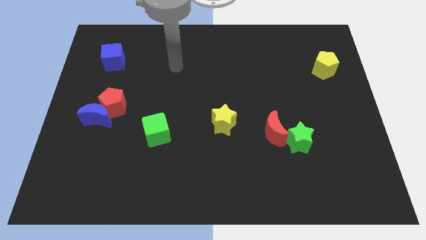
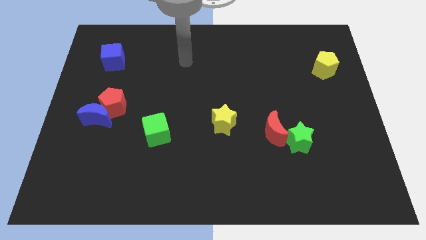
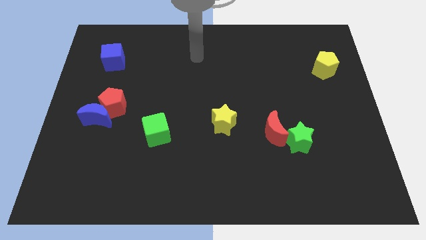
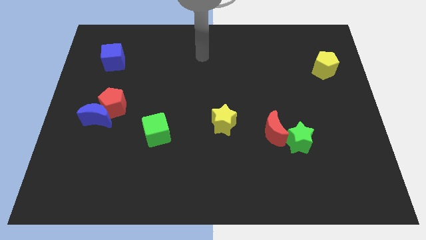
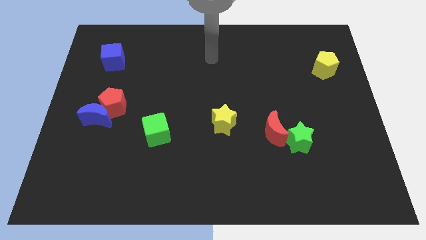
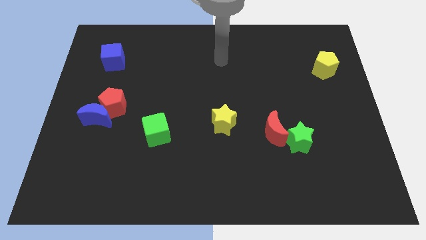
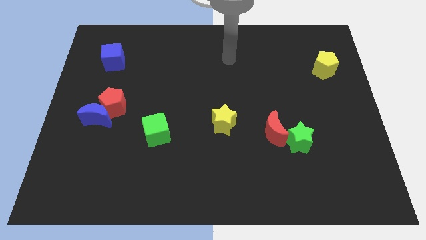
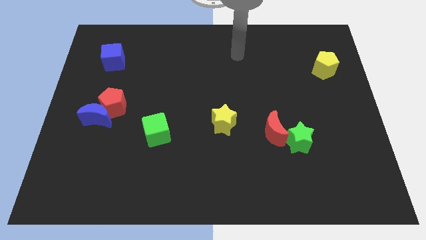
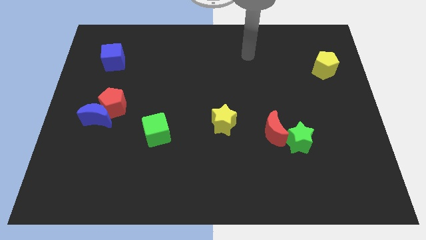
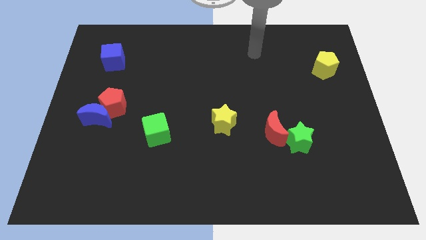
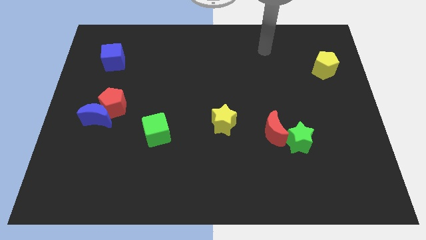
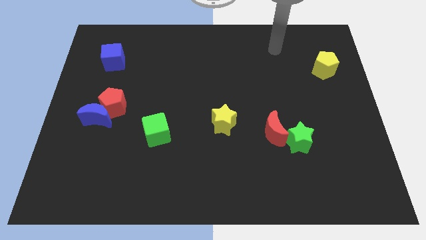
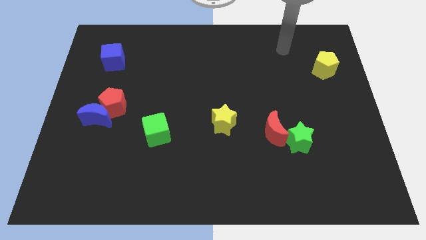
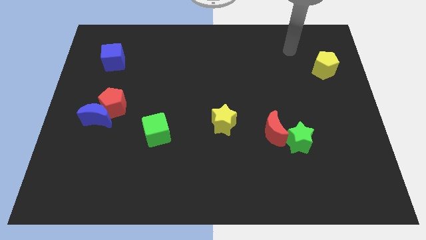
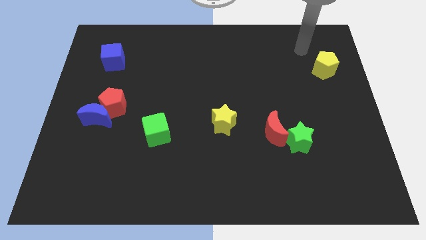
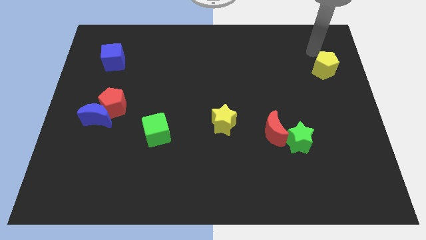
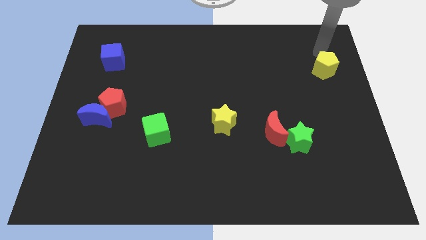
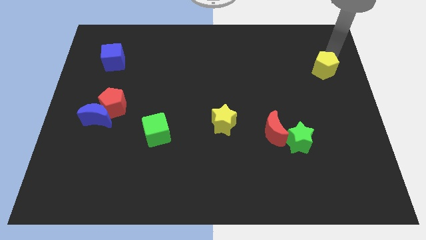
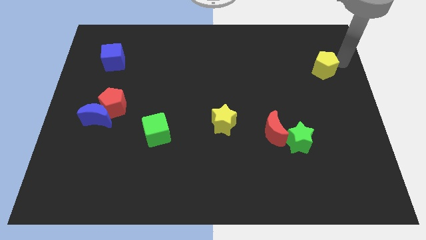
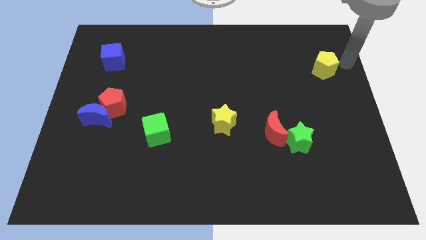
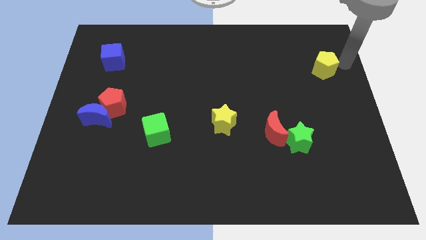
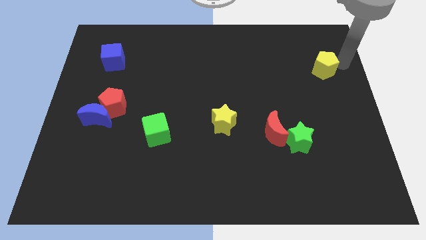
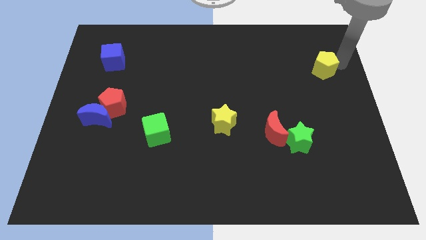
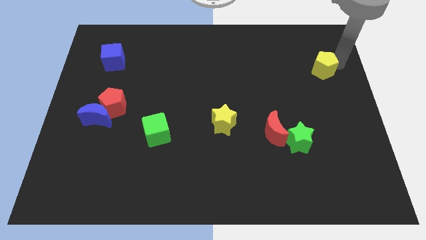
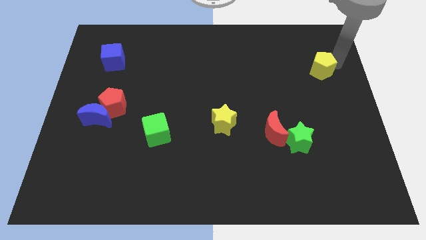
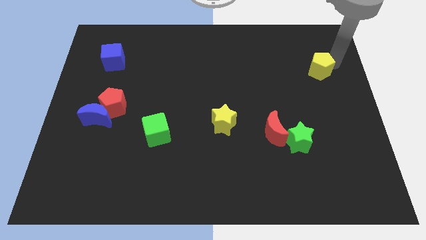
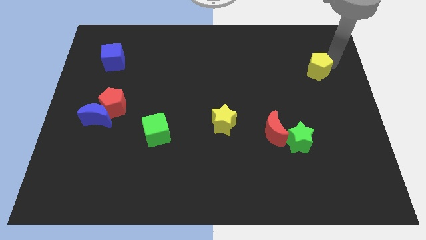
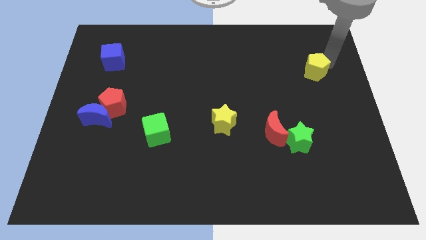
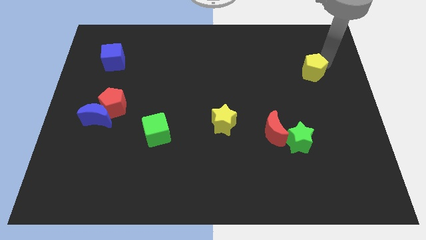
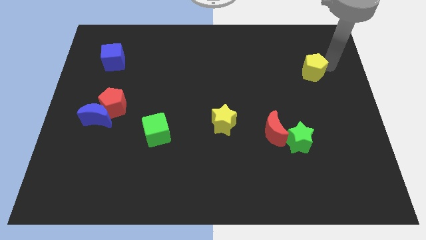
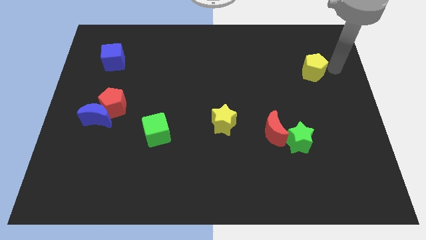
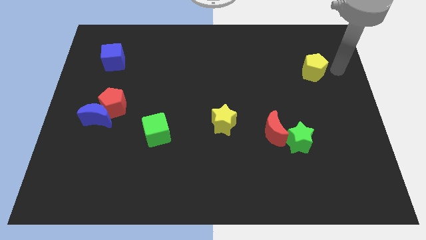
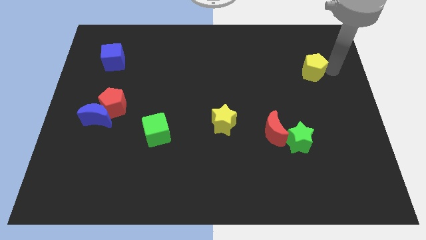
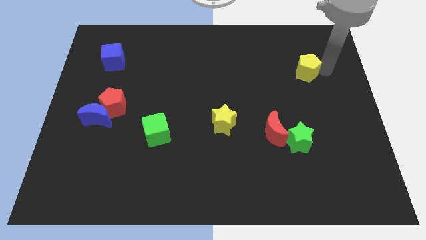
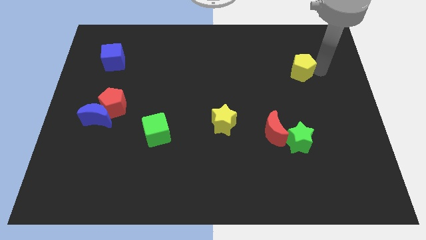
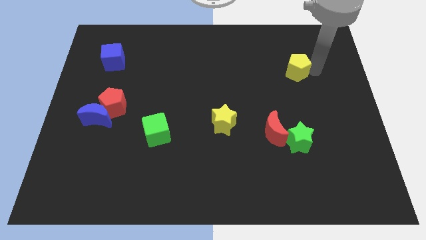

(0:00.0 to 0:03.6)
push the yellow pentagon a bit left

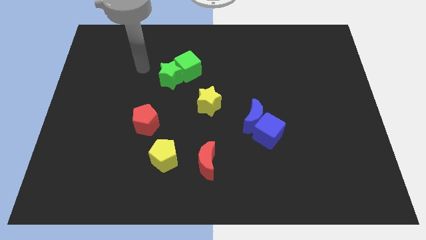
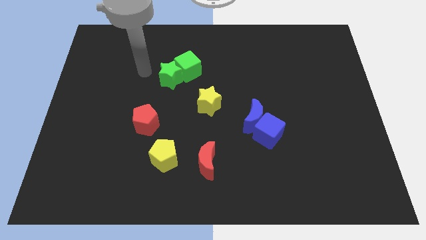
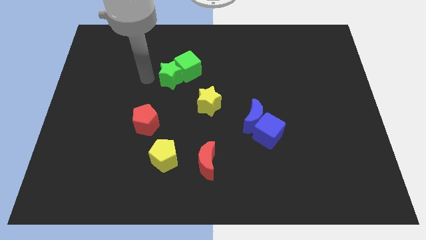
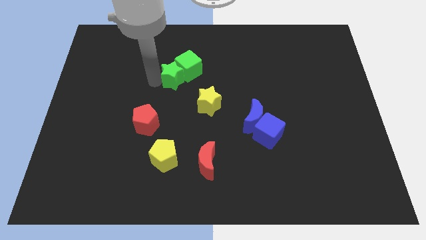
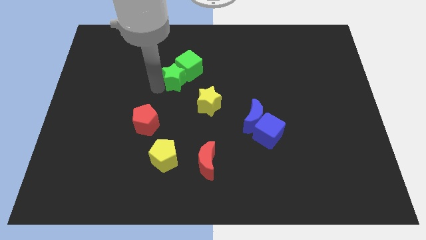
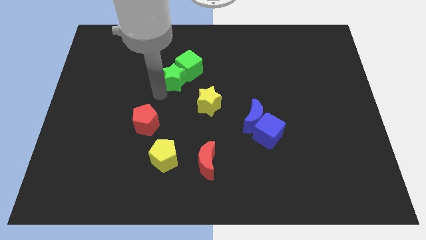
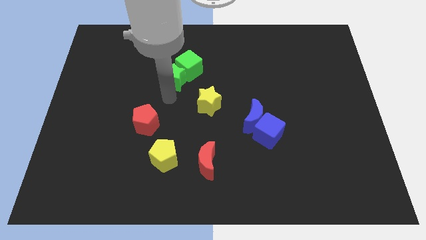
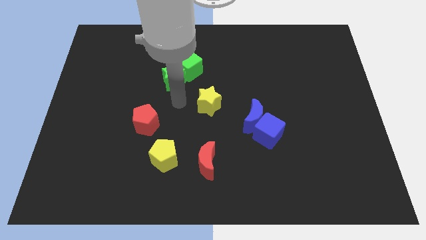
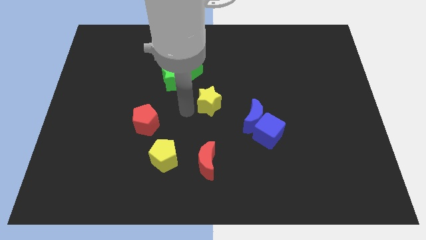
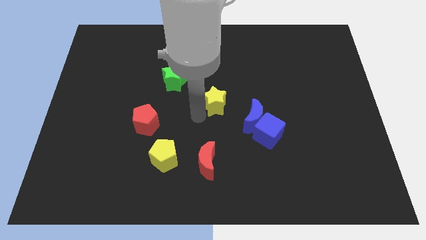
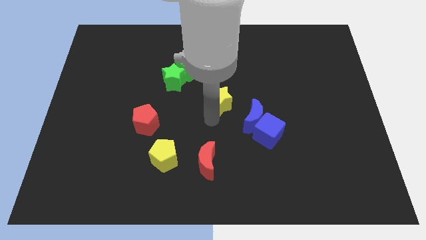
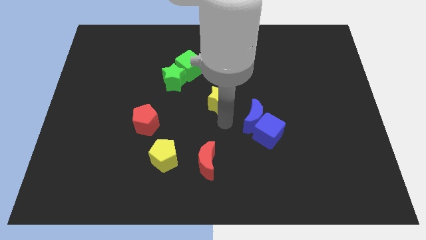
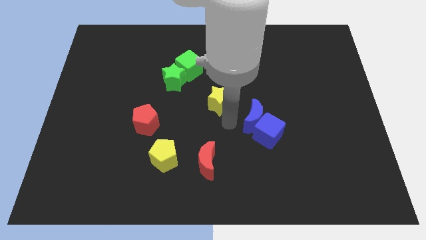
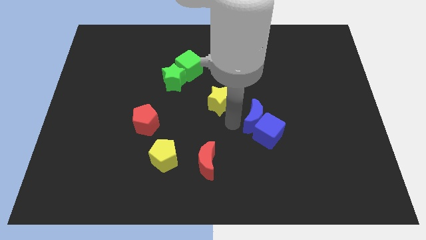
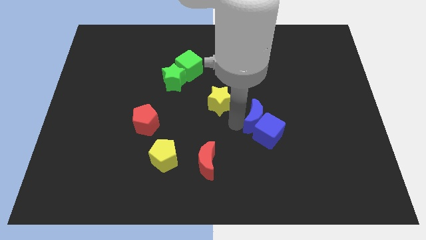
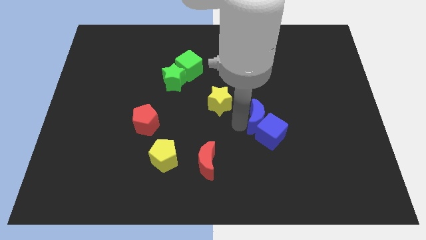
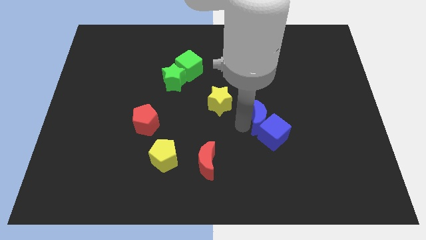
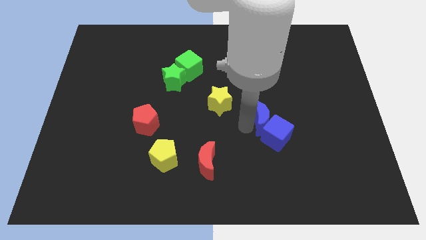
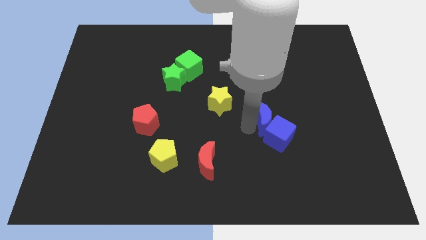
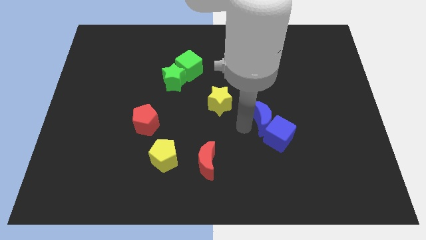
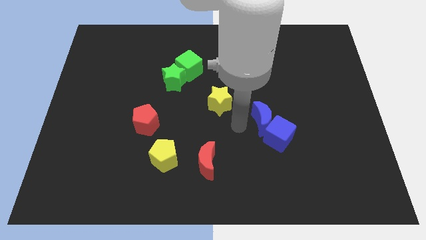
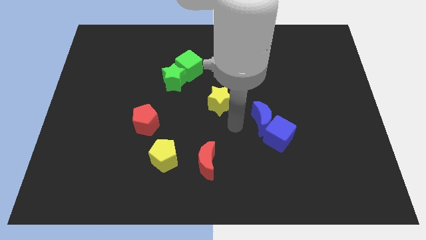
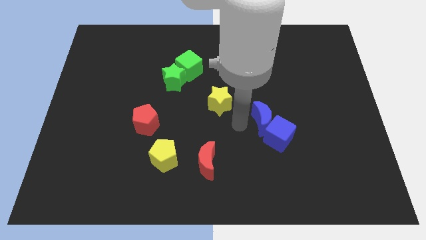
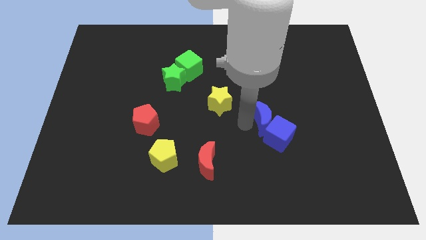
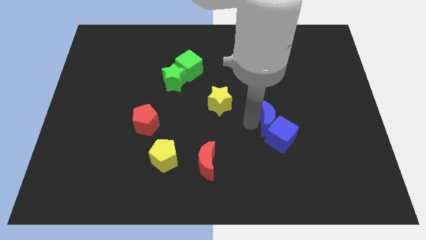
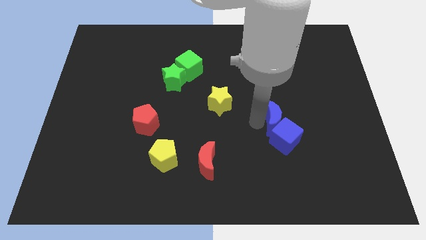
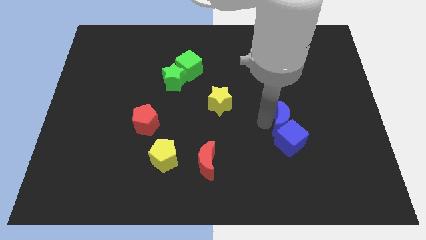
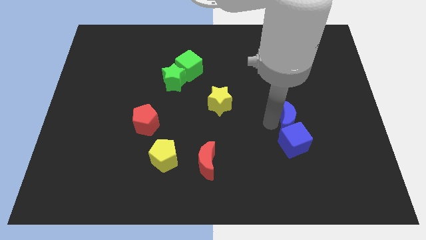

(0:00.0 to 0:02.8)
push the blue moon right somewhat

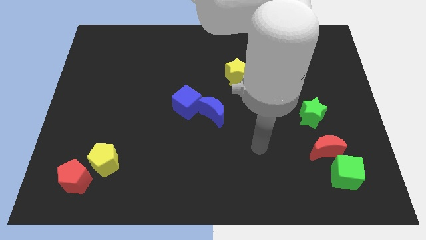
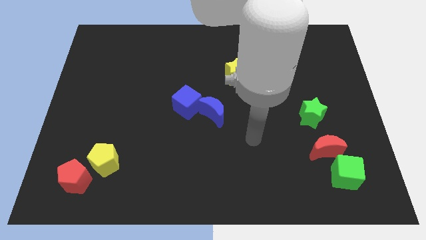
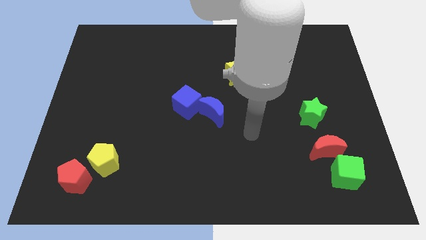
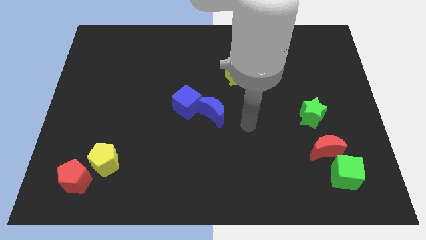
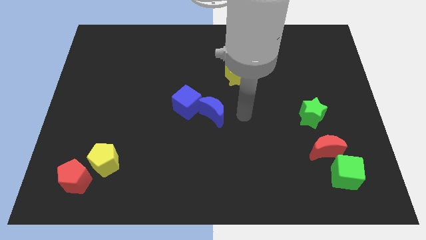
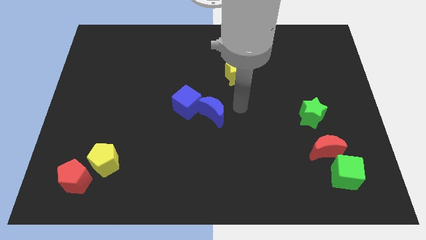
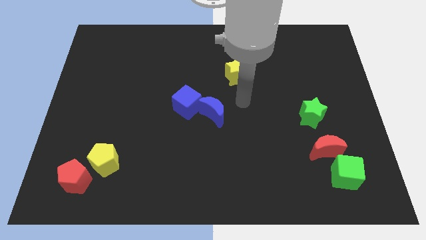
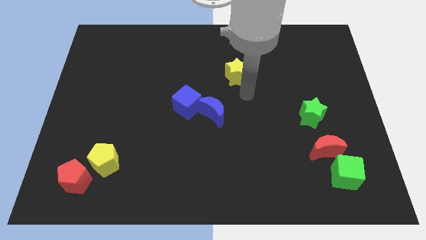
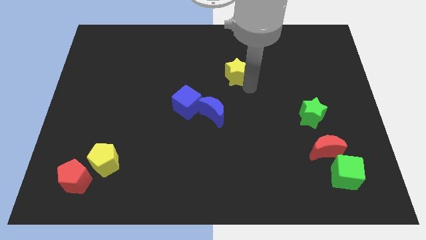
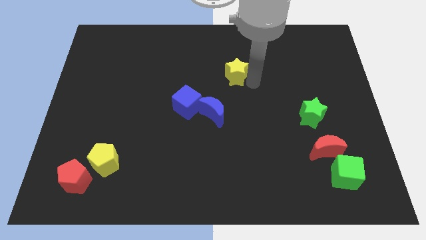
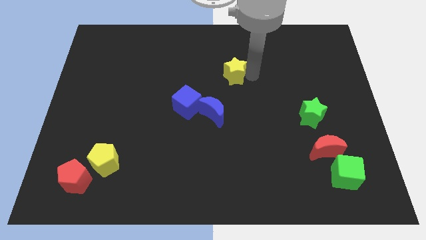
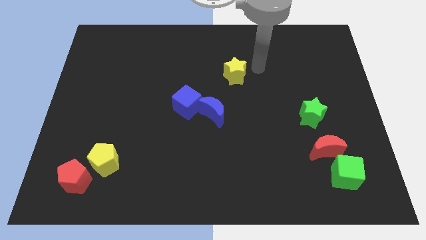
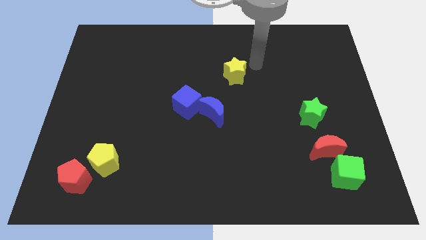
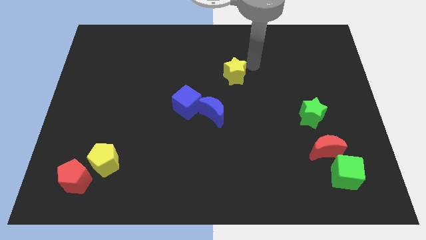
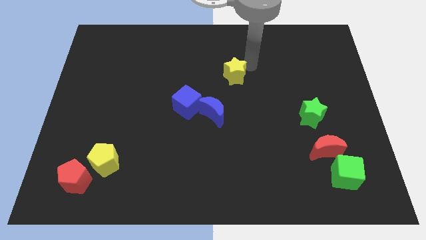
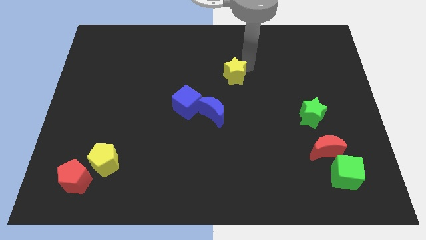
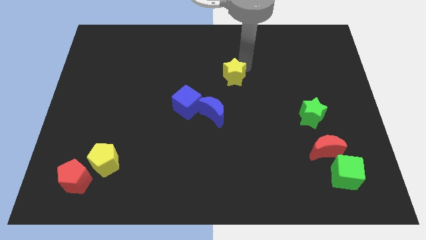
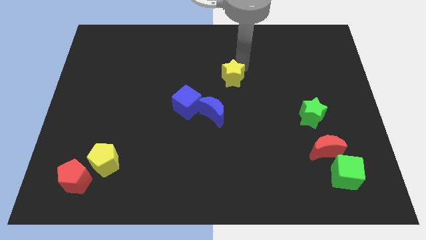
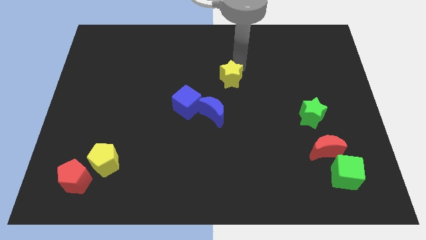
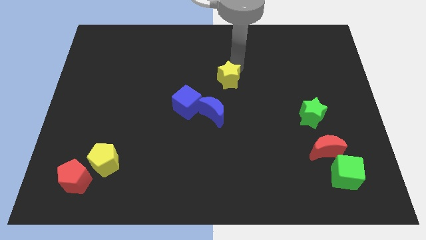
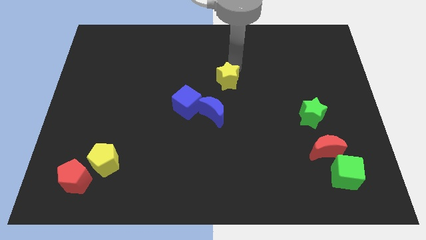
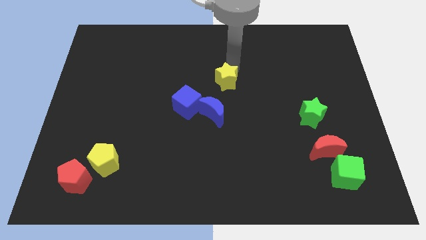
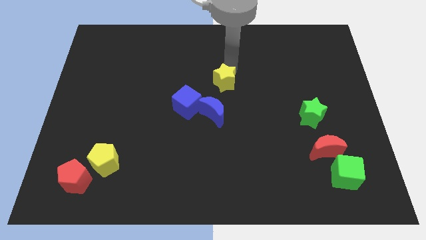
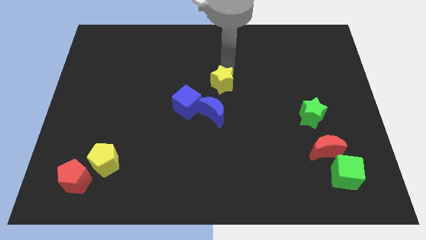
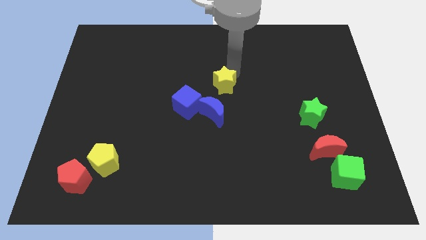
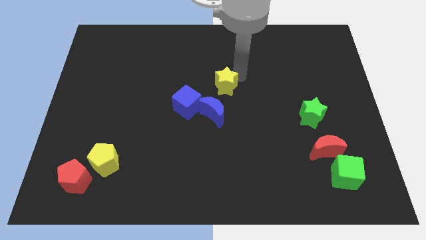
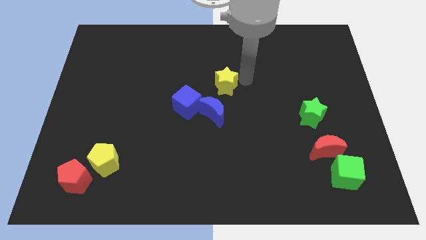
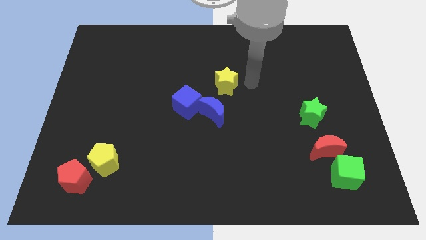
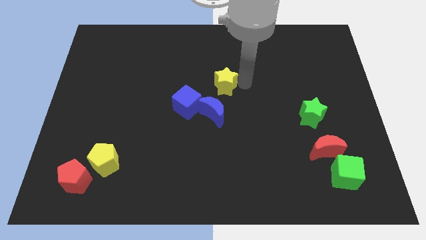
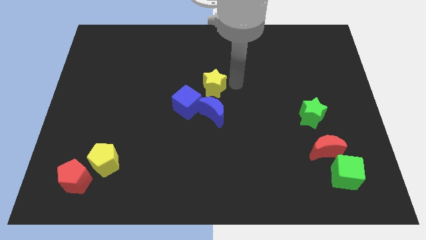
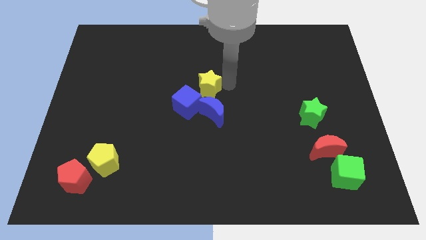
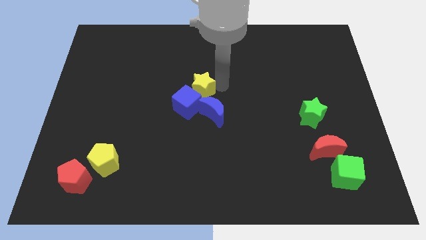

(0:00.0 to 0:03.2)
push the yellow star a little left
